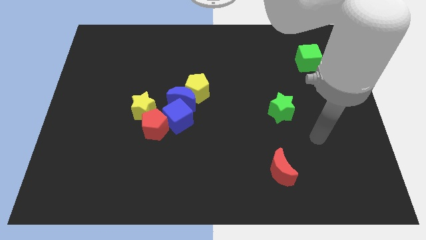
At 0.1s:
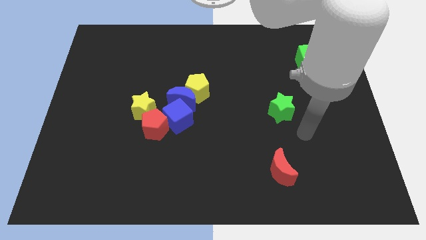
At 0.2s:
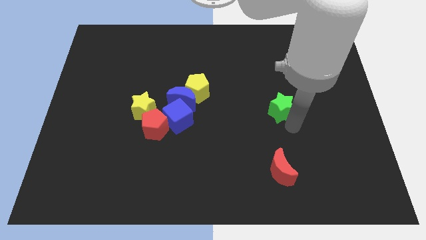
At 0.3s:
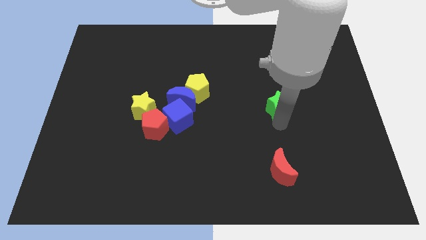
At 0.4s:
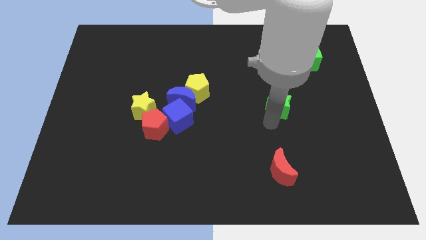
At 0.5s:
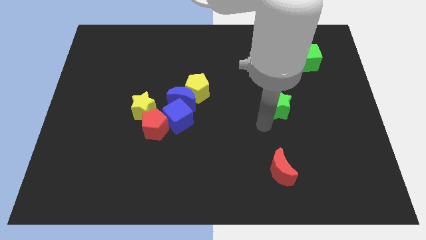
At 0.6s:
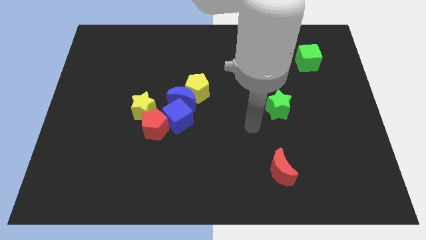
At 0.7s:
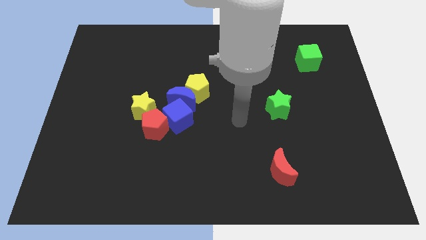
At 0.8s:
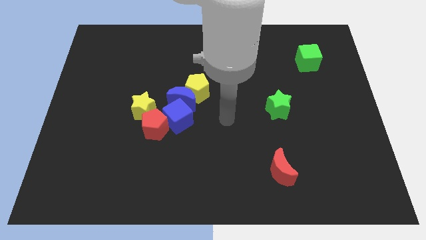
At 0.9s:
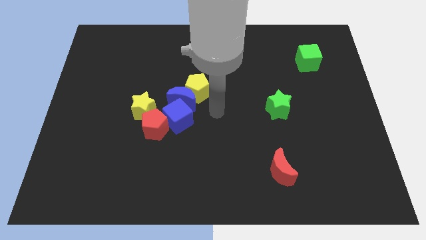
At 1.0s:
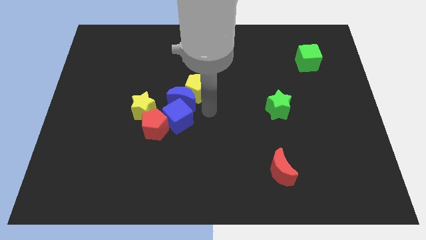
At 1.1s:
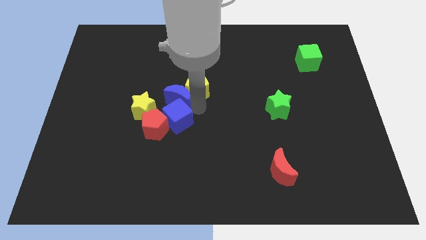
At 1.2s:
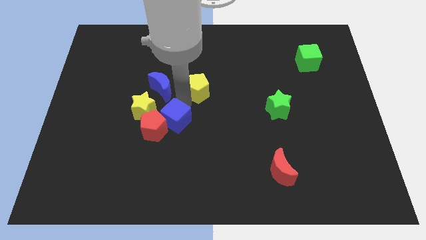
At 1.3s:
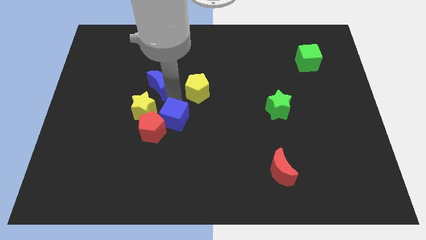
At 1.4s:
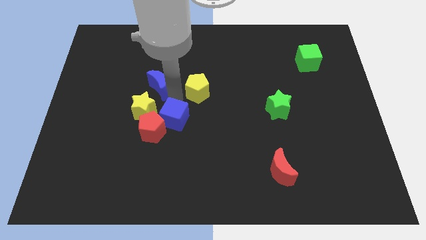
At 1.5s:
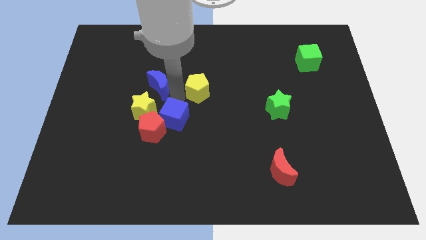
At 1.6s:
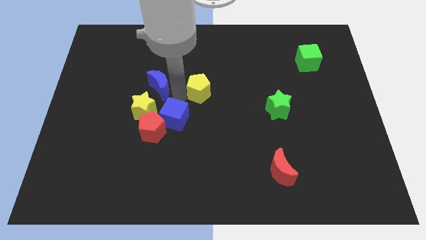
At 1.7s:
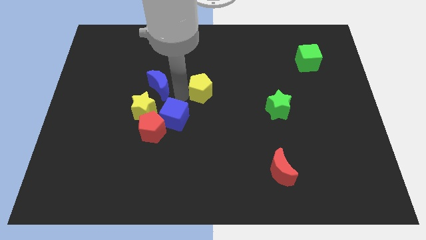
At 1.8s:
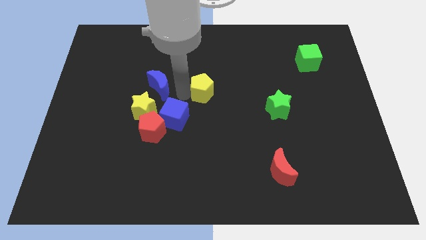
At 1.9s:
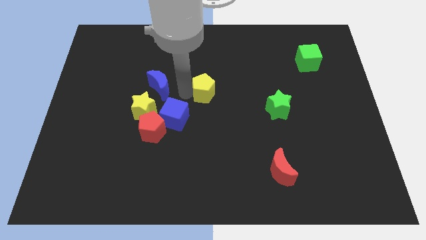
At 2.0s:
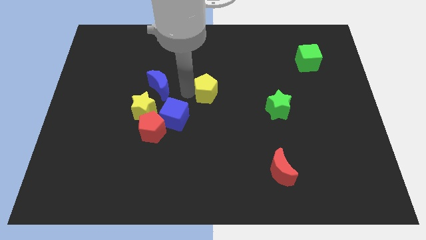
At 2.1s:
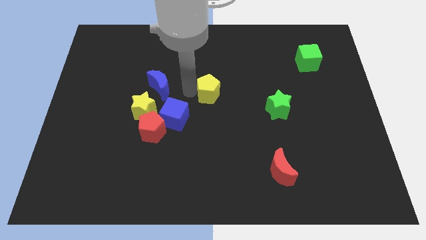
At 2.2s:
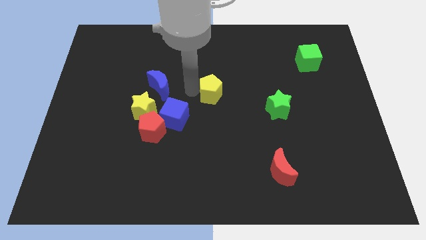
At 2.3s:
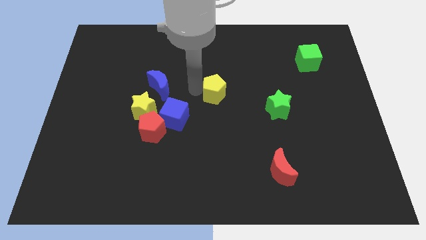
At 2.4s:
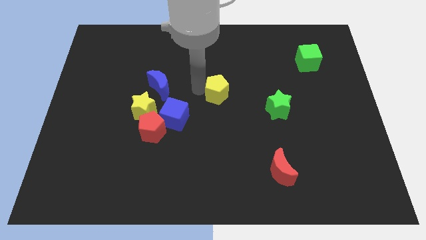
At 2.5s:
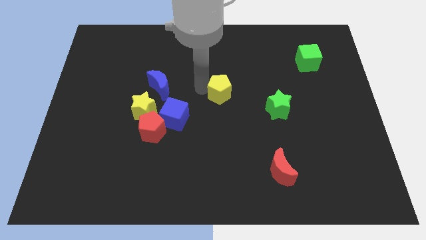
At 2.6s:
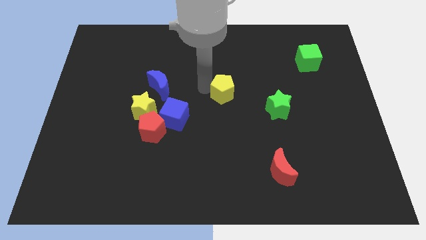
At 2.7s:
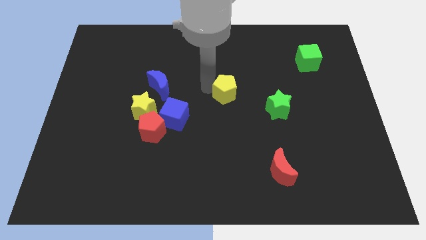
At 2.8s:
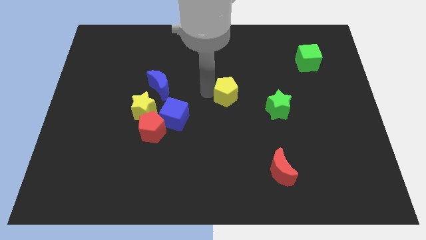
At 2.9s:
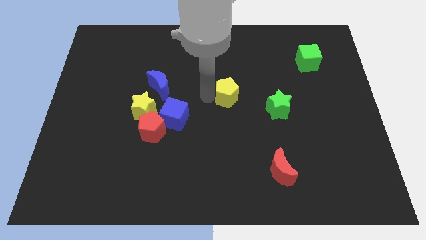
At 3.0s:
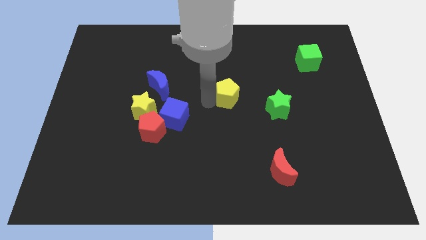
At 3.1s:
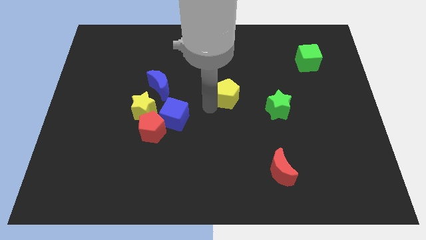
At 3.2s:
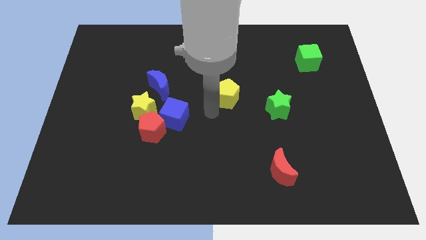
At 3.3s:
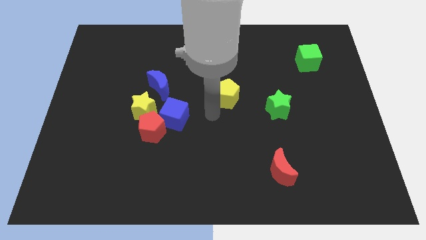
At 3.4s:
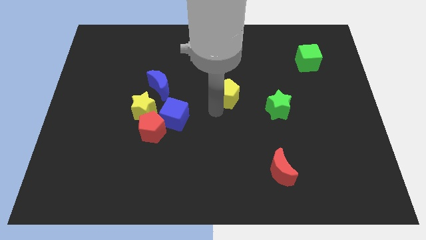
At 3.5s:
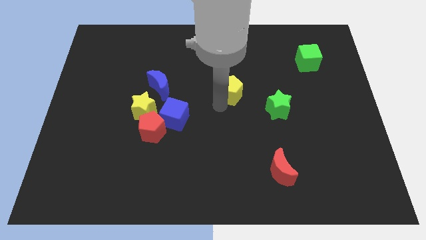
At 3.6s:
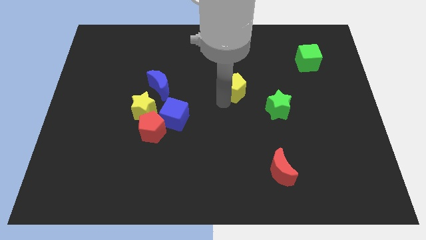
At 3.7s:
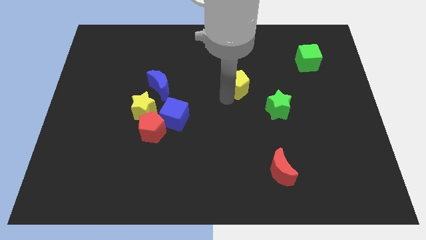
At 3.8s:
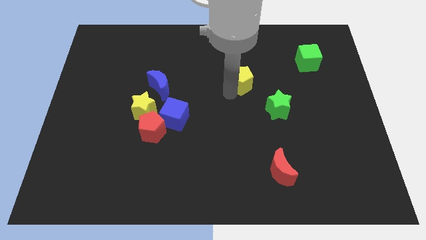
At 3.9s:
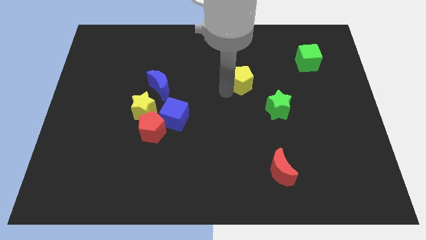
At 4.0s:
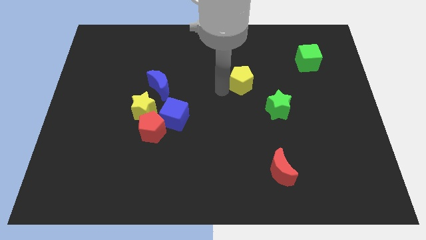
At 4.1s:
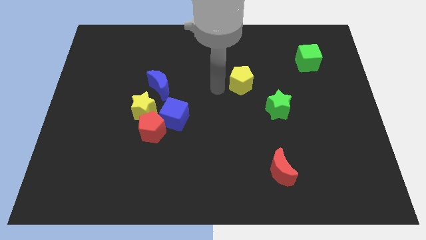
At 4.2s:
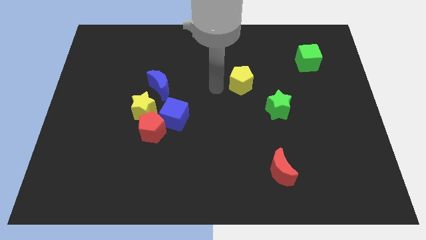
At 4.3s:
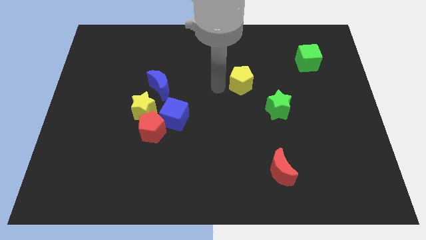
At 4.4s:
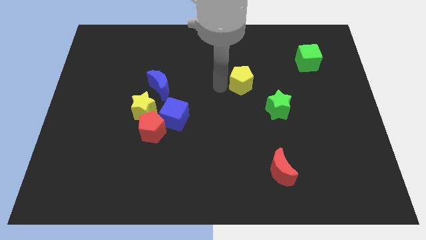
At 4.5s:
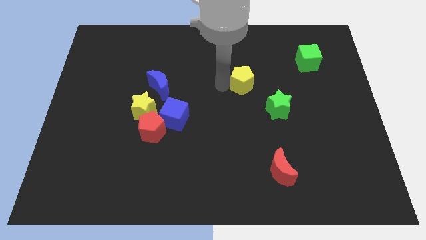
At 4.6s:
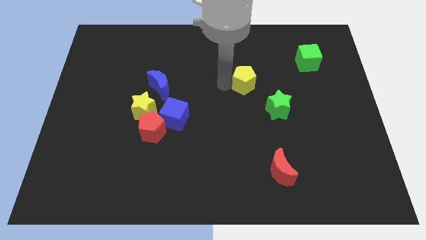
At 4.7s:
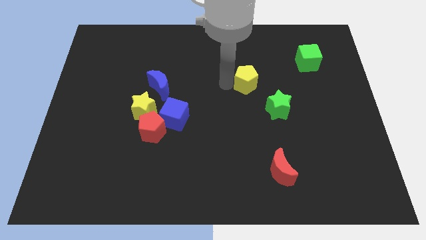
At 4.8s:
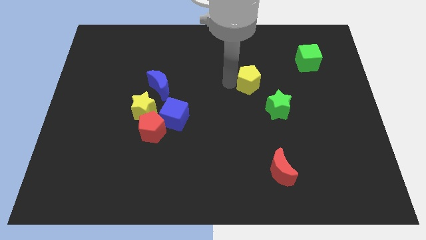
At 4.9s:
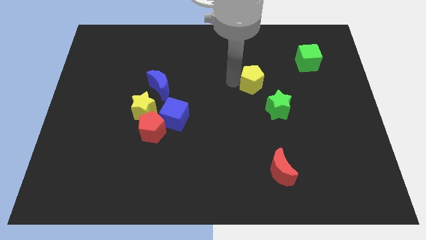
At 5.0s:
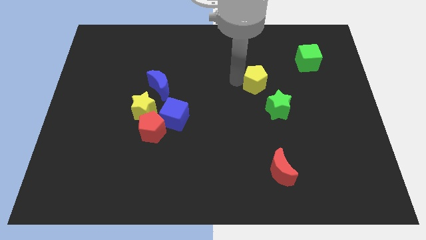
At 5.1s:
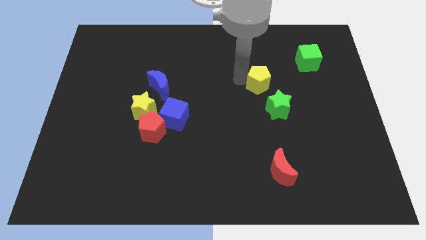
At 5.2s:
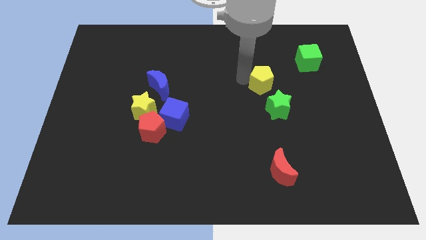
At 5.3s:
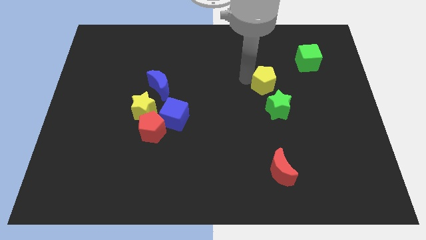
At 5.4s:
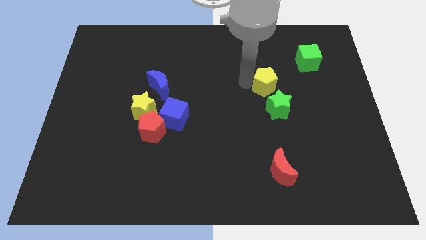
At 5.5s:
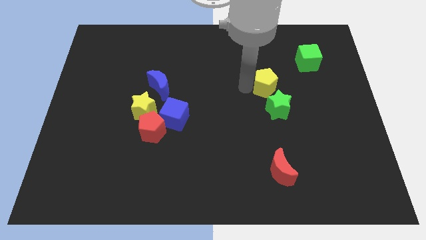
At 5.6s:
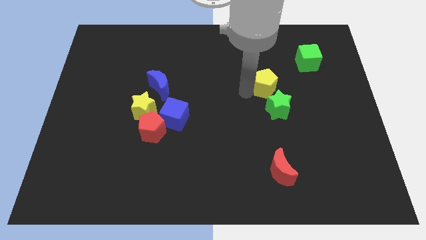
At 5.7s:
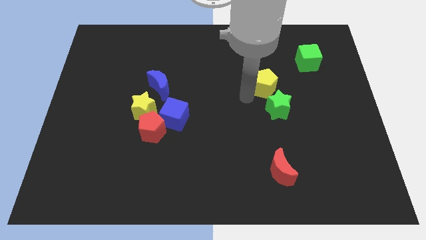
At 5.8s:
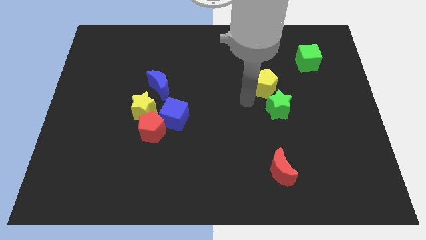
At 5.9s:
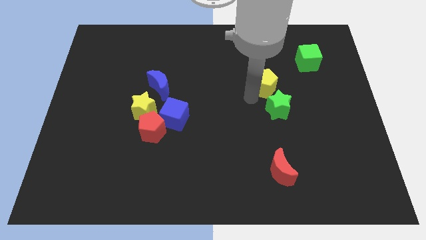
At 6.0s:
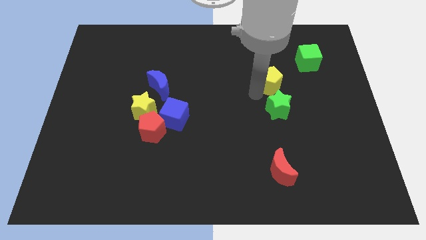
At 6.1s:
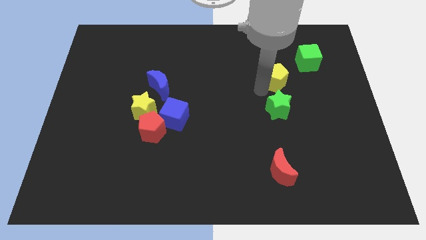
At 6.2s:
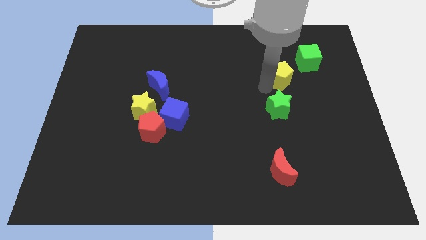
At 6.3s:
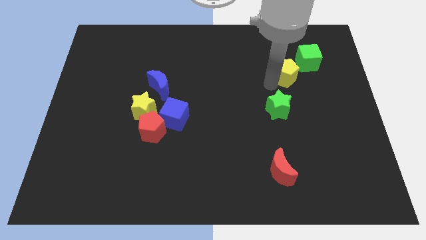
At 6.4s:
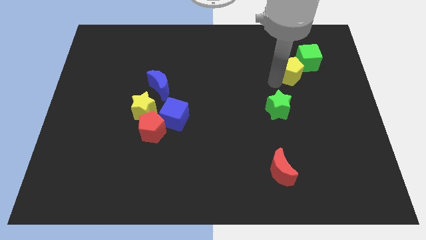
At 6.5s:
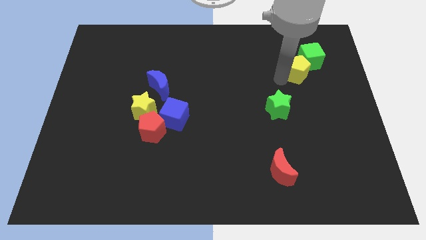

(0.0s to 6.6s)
move the yellow pentagon close to the green cube

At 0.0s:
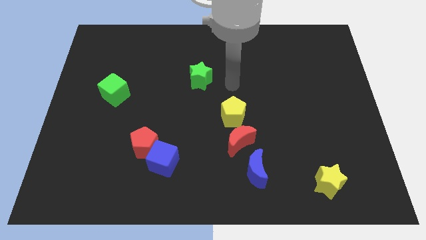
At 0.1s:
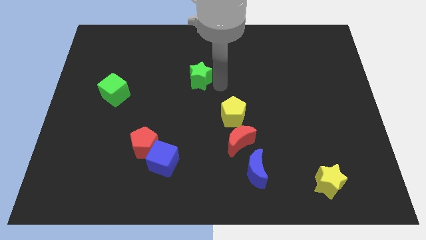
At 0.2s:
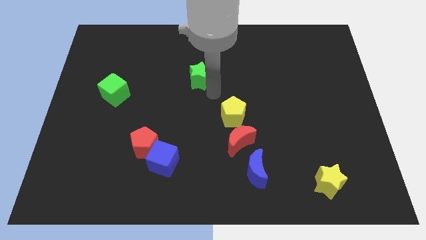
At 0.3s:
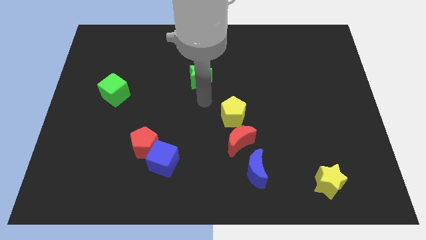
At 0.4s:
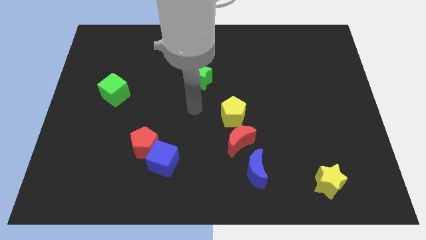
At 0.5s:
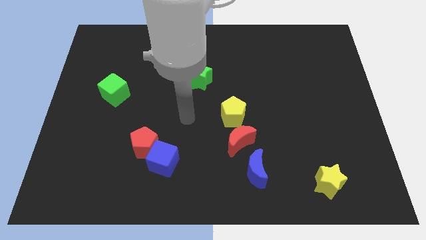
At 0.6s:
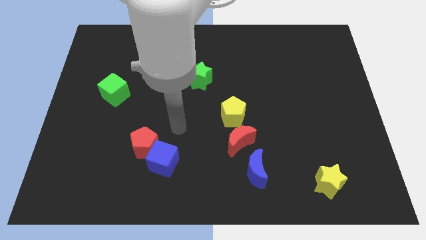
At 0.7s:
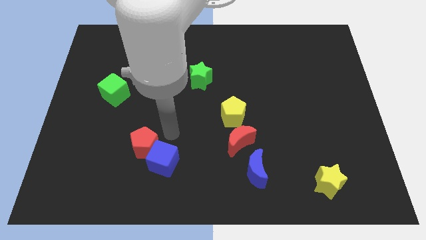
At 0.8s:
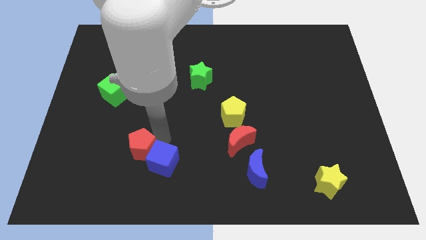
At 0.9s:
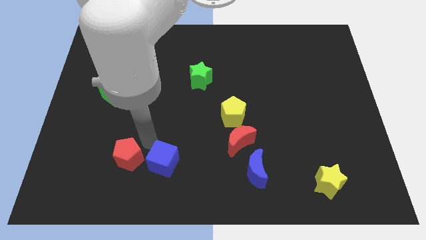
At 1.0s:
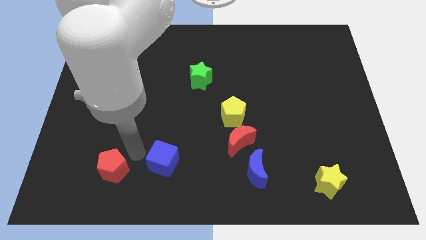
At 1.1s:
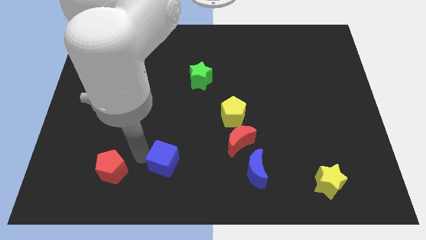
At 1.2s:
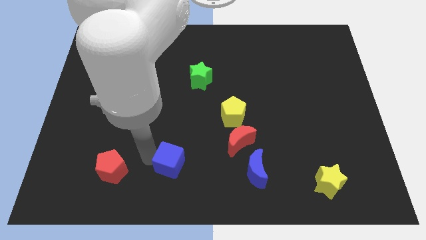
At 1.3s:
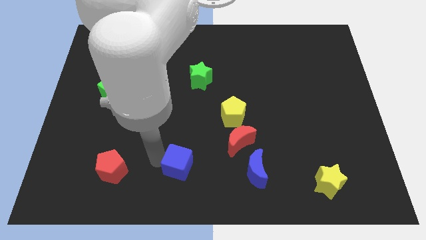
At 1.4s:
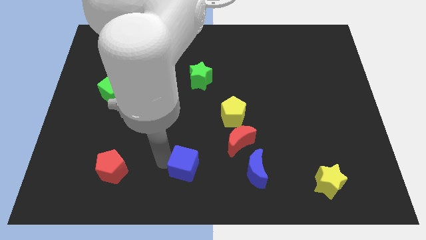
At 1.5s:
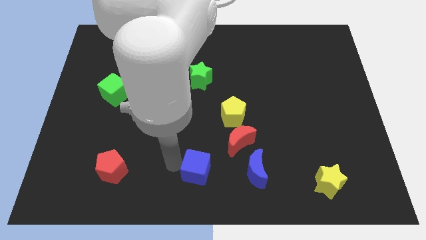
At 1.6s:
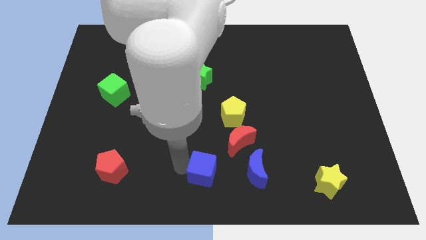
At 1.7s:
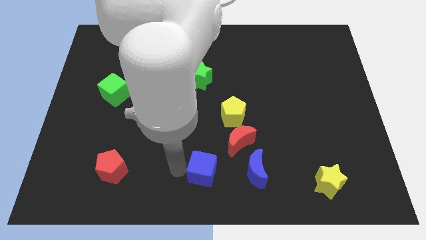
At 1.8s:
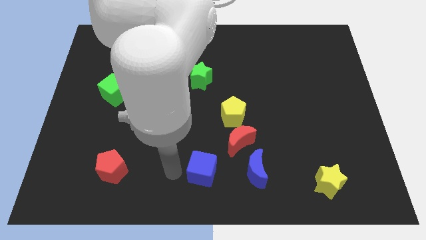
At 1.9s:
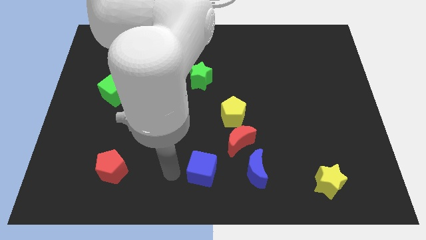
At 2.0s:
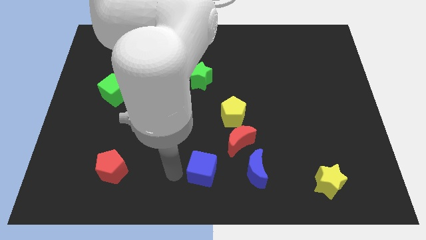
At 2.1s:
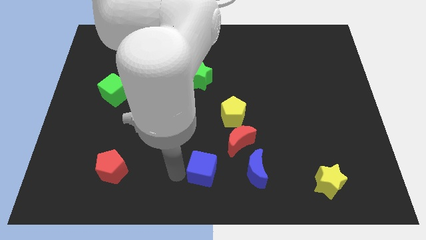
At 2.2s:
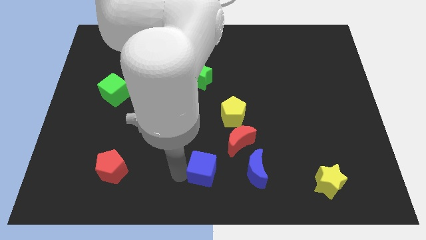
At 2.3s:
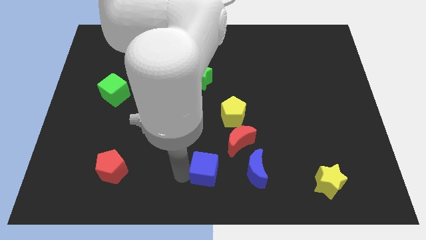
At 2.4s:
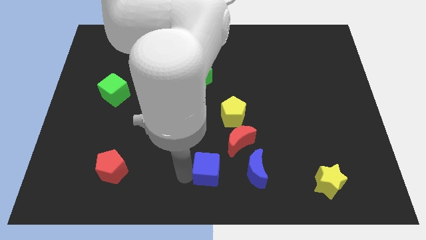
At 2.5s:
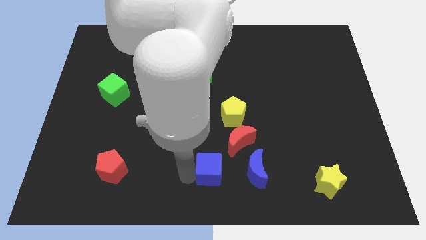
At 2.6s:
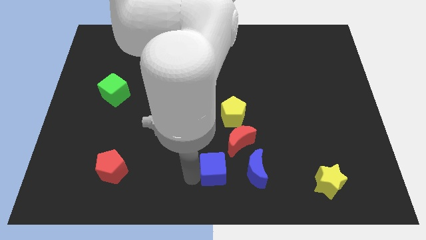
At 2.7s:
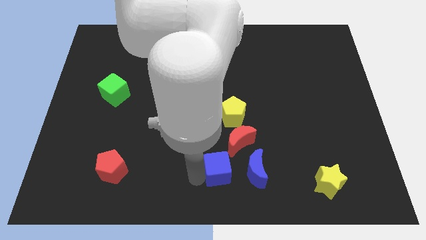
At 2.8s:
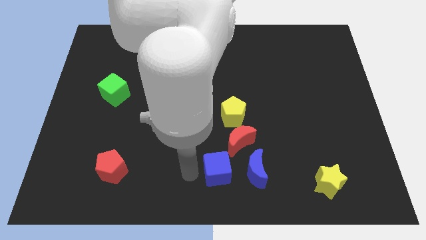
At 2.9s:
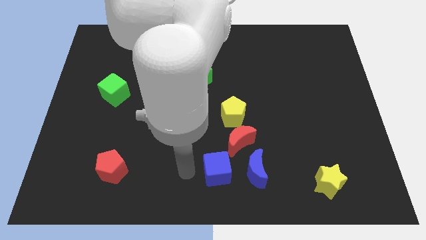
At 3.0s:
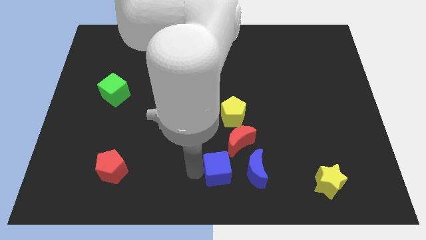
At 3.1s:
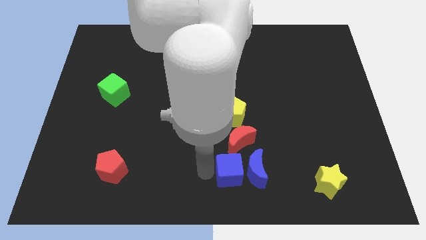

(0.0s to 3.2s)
move the blue cube to the blue moon
